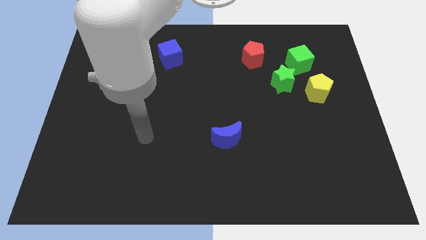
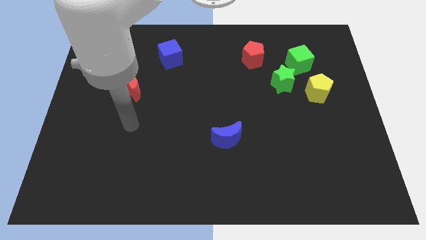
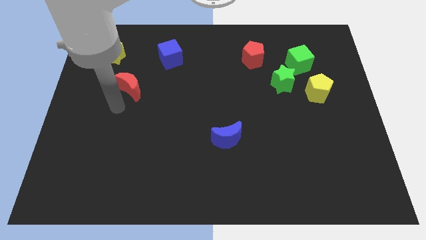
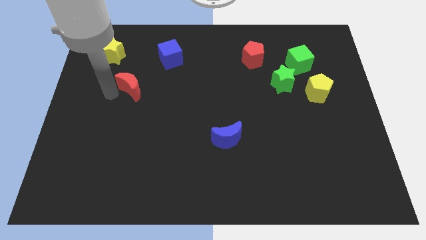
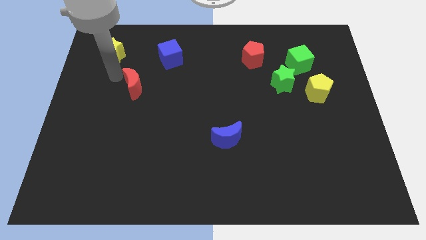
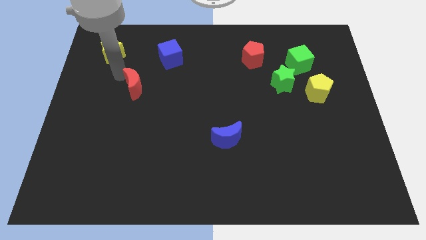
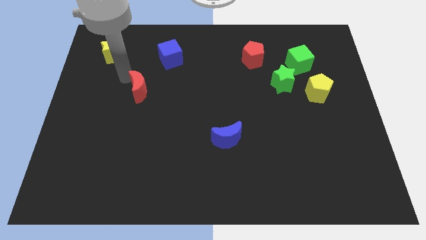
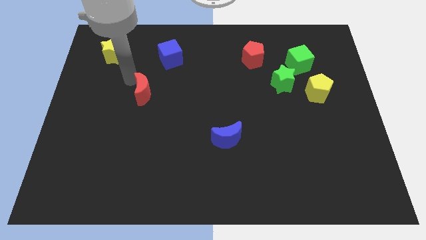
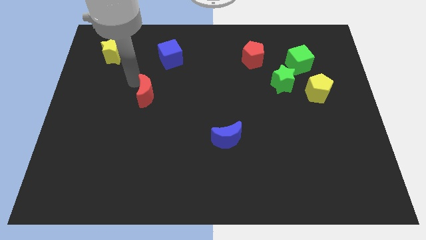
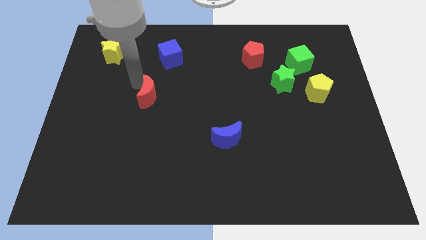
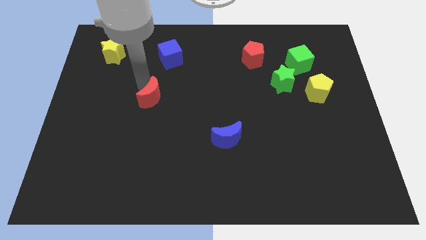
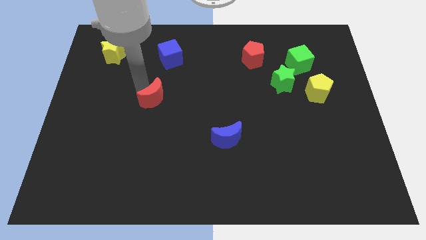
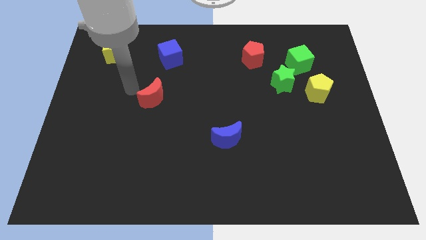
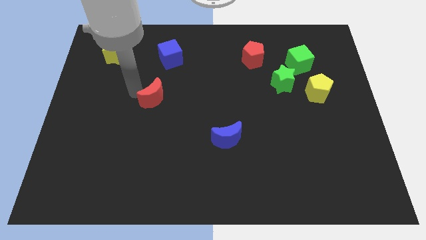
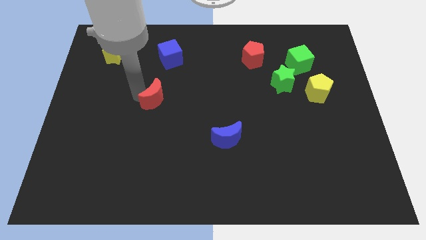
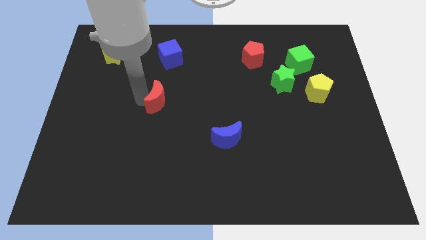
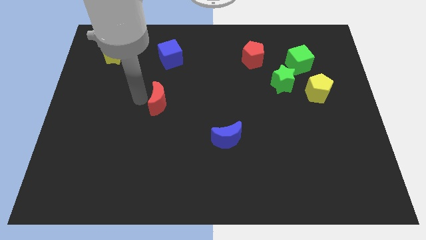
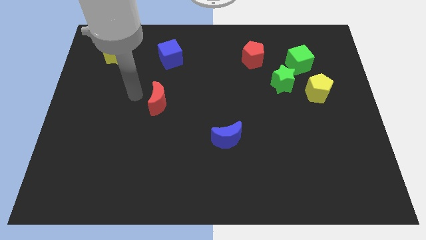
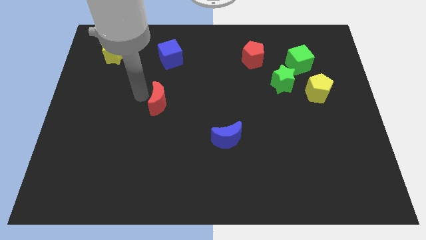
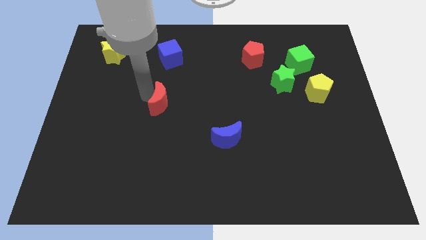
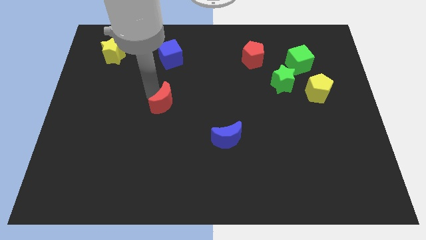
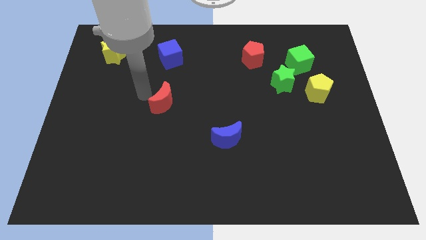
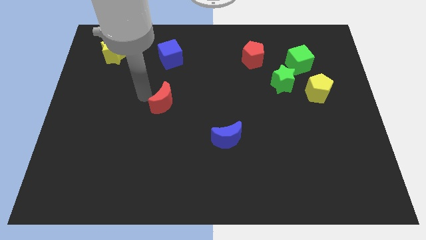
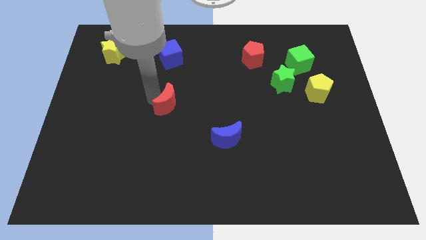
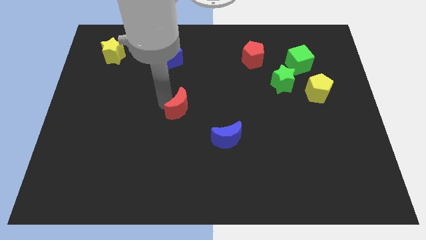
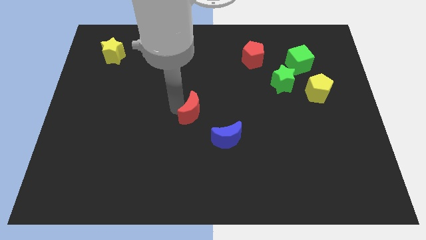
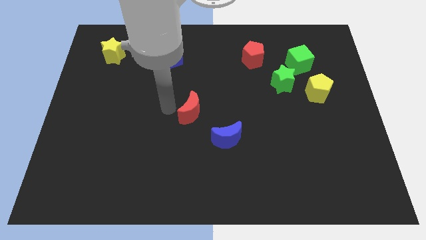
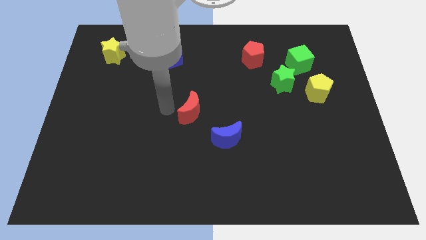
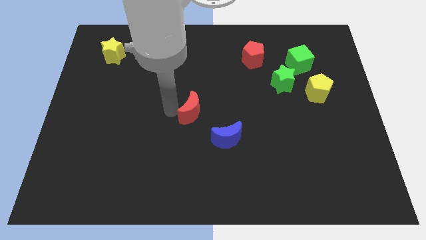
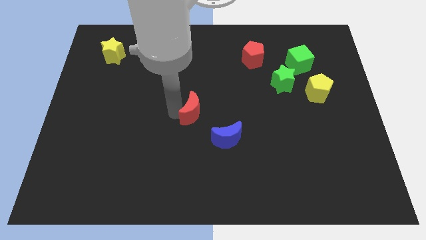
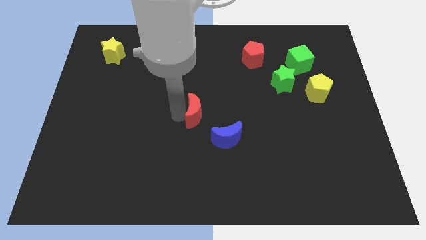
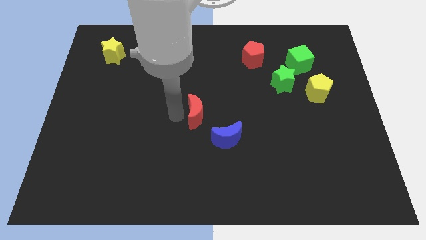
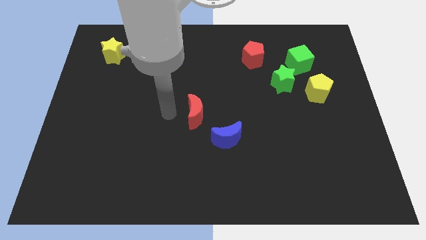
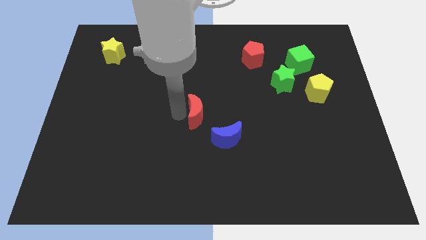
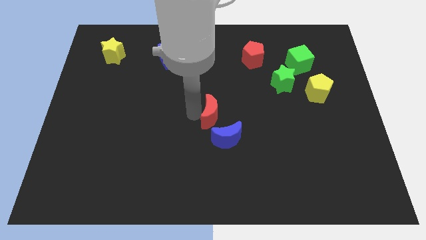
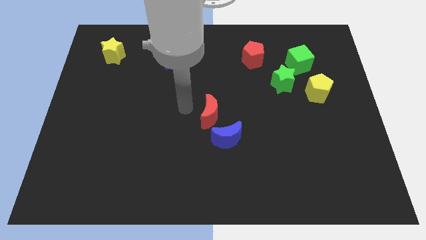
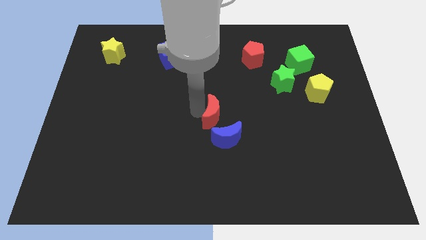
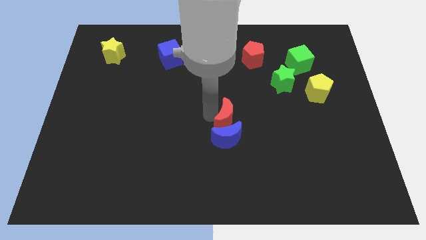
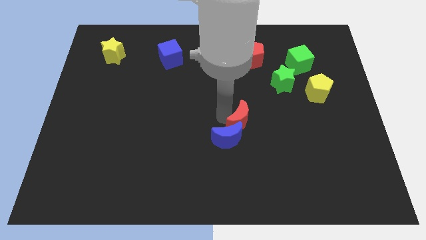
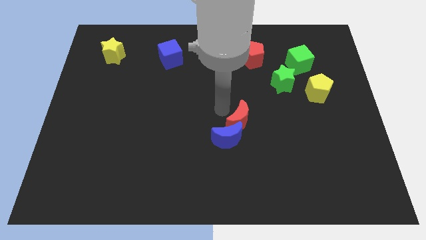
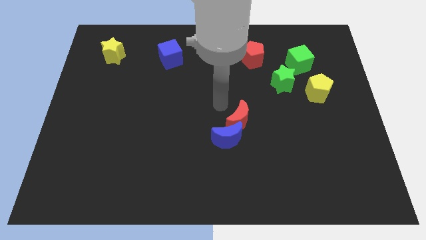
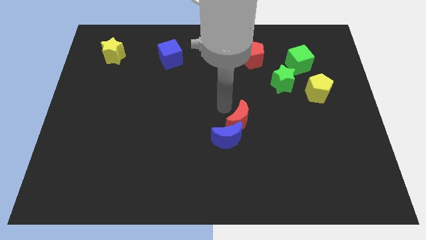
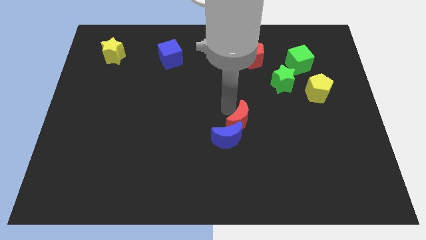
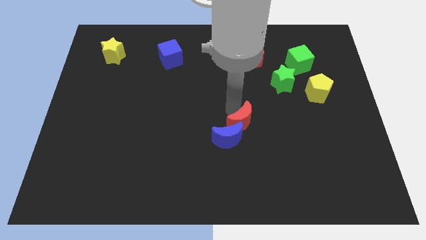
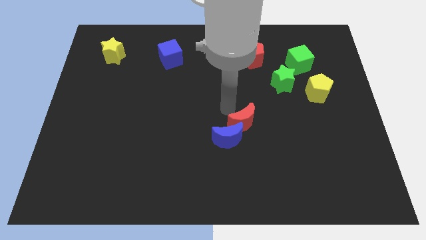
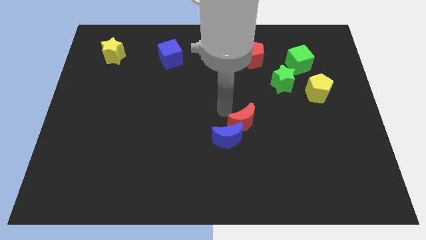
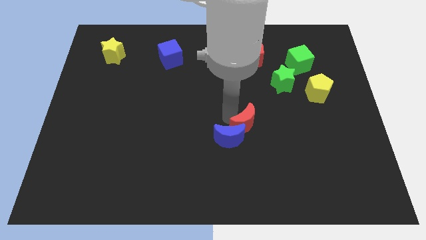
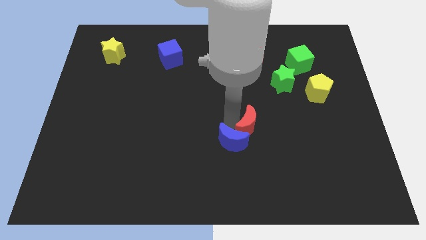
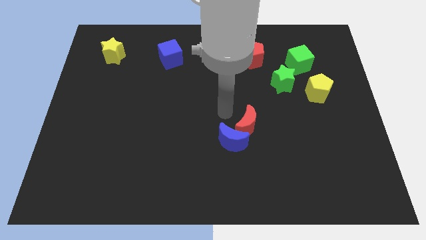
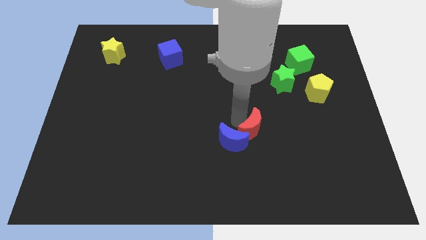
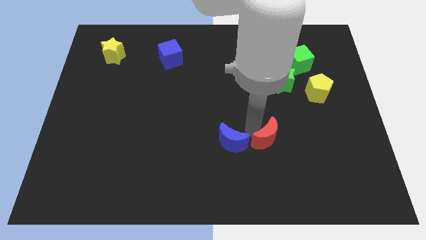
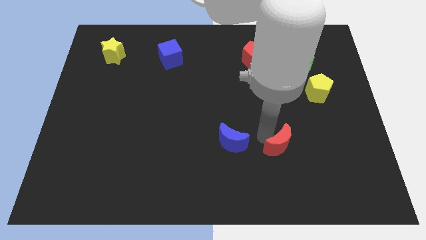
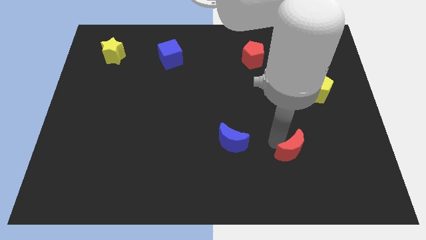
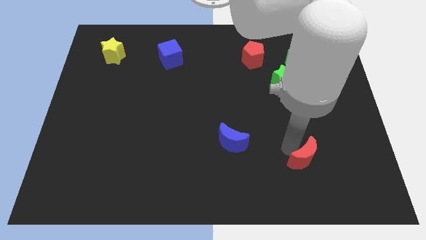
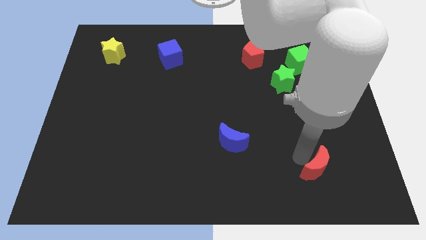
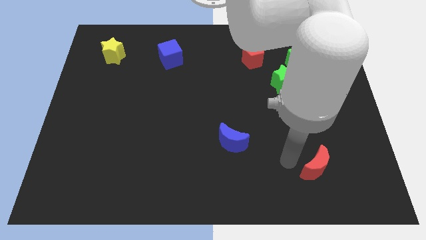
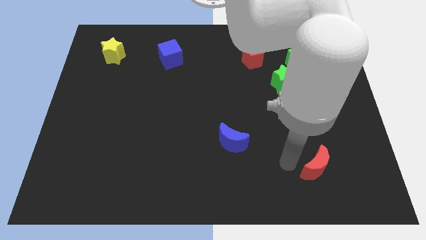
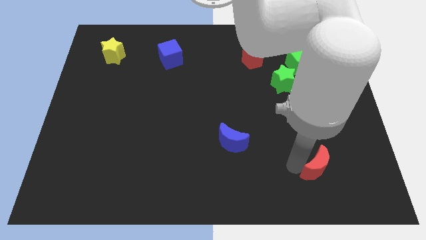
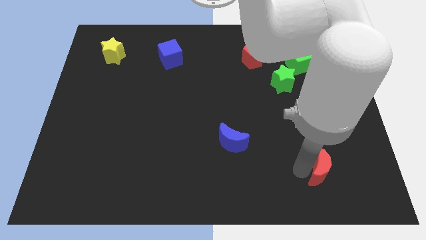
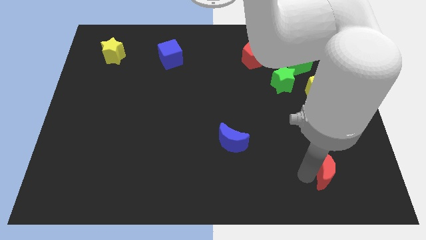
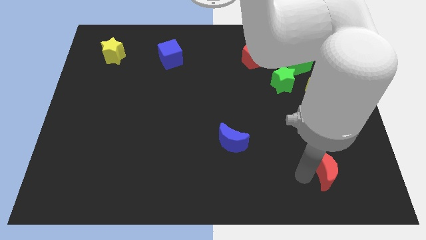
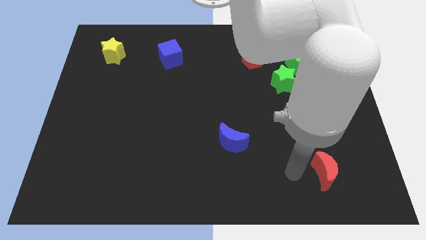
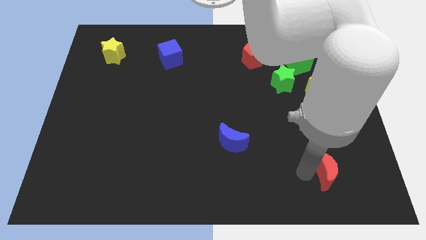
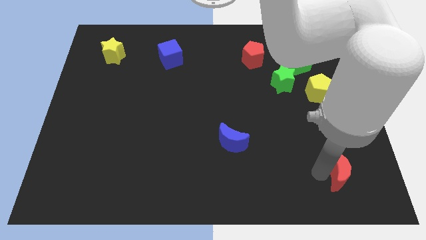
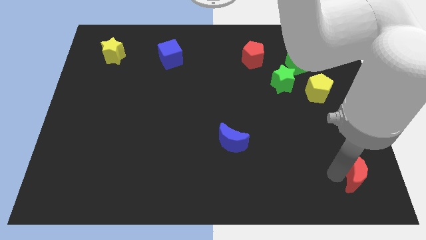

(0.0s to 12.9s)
slide the red moon to the lower right corner

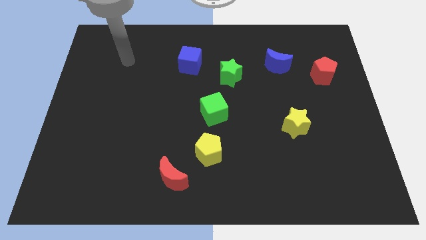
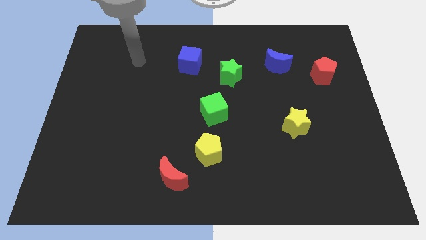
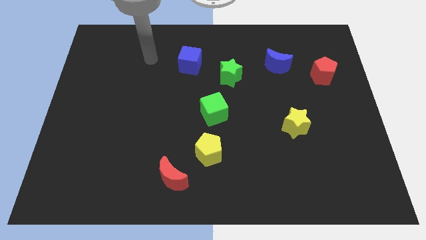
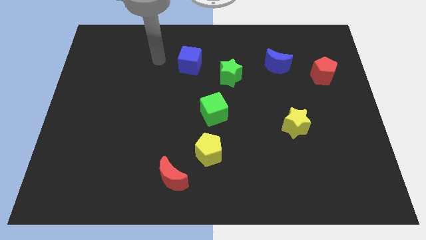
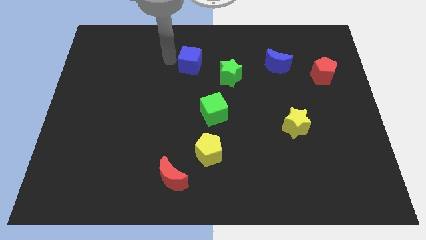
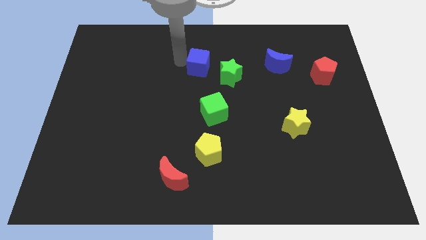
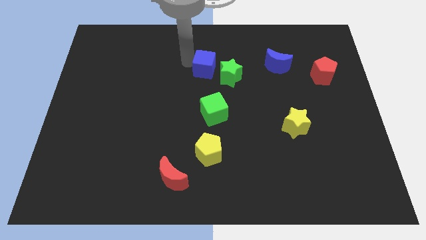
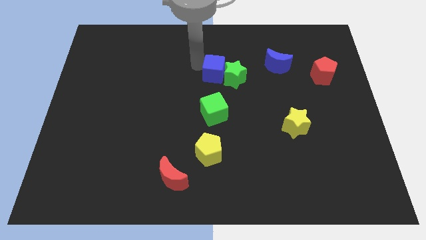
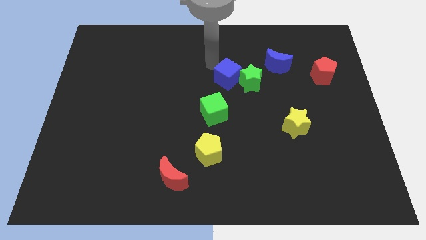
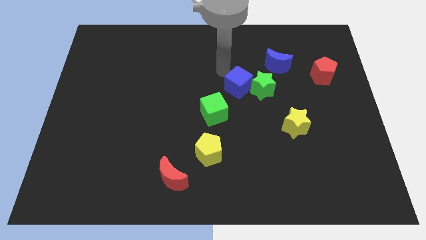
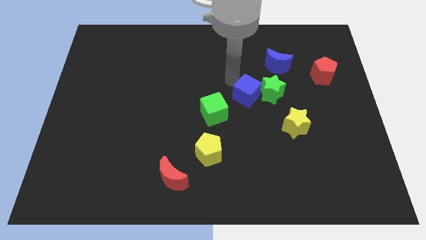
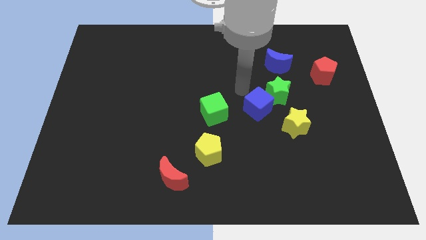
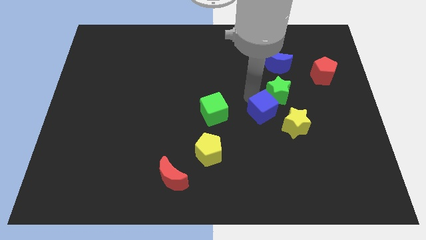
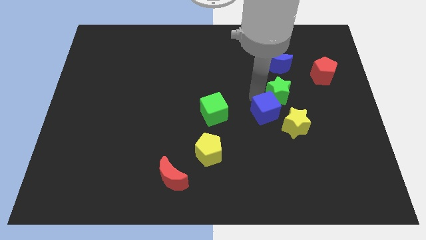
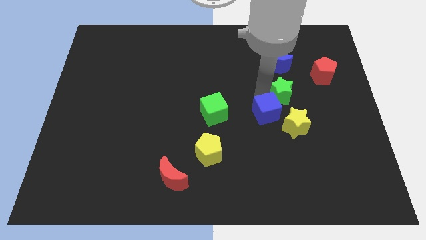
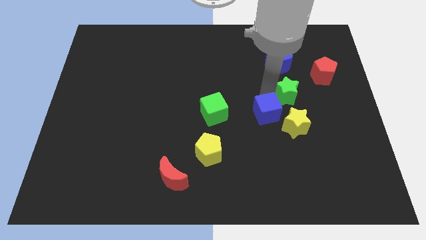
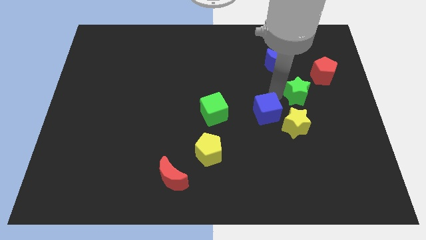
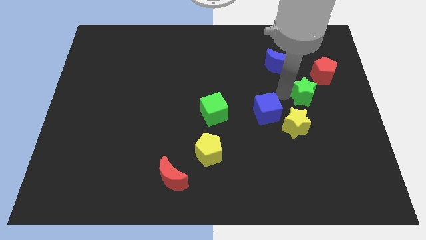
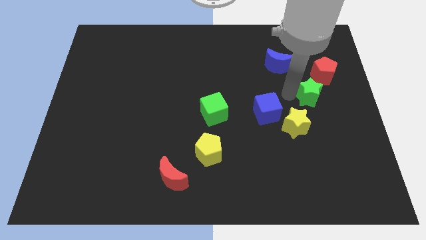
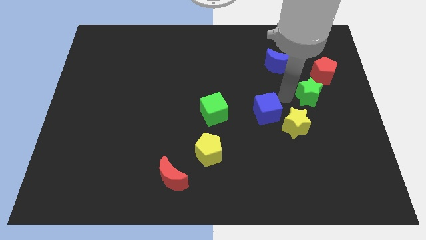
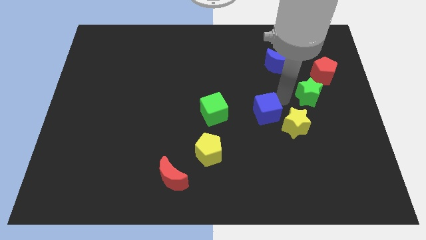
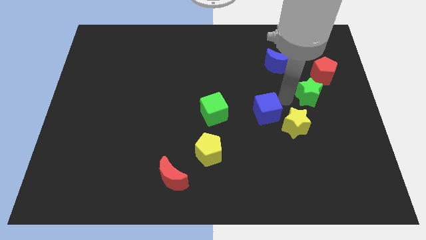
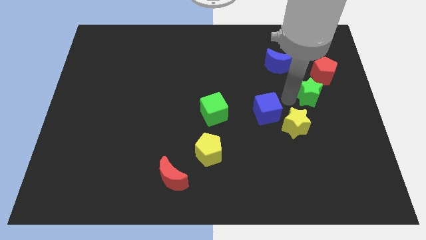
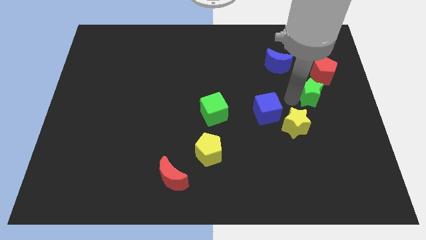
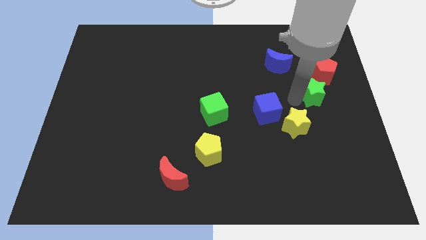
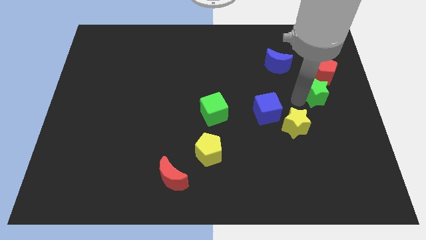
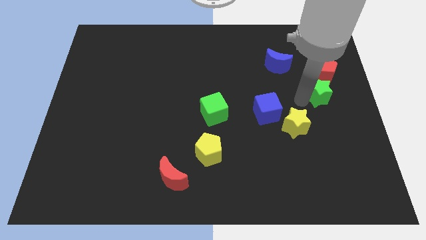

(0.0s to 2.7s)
put the green star to the right side
